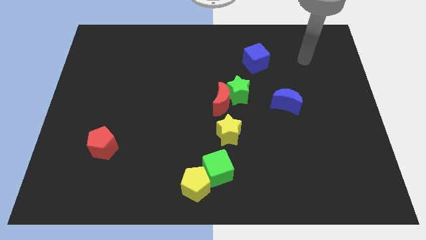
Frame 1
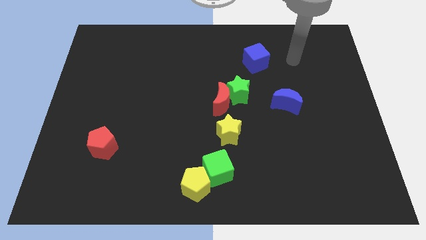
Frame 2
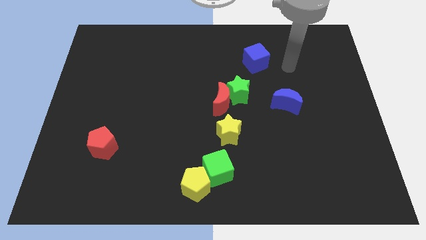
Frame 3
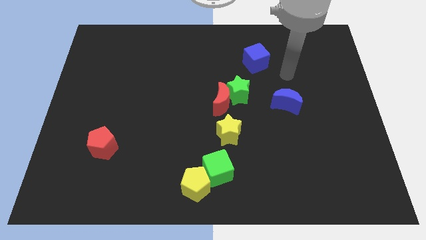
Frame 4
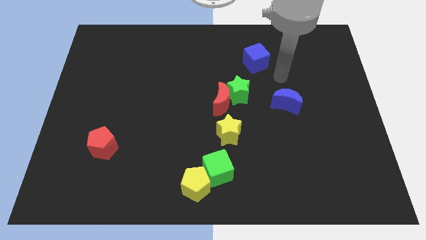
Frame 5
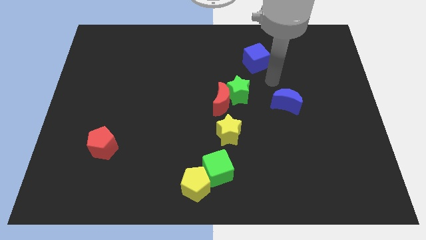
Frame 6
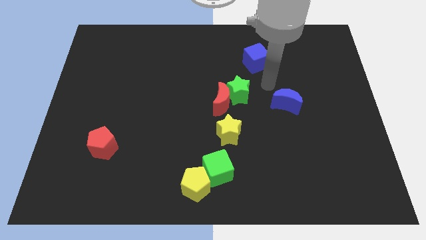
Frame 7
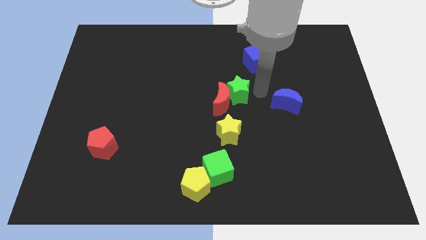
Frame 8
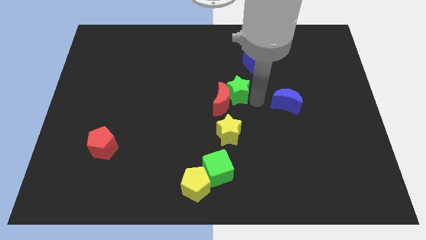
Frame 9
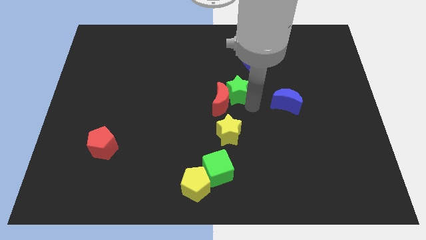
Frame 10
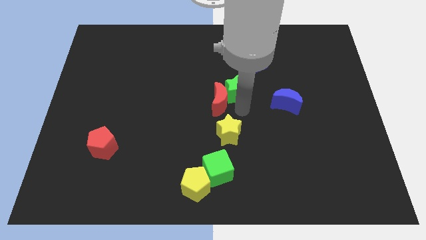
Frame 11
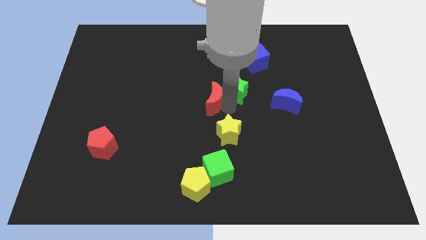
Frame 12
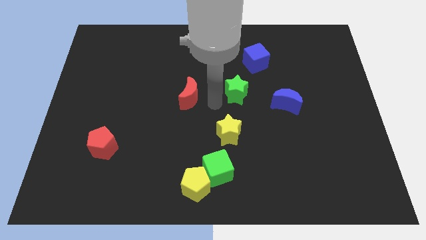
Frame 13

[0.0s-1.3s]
move the green star away from the red moon

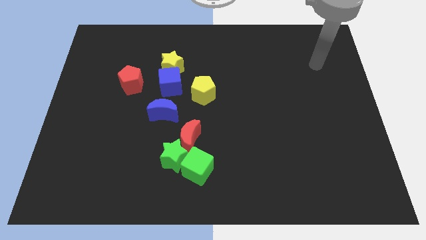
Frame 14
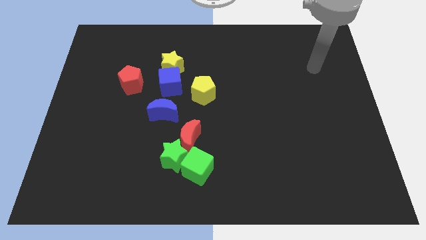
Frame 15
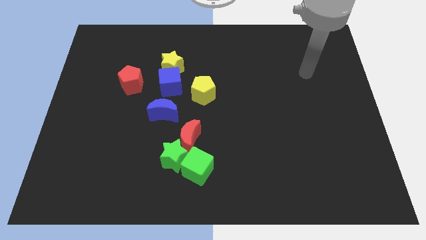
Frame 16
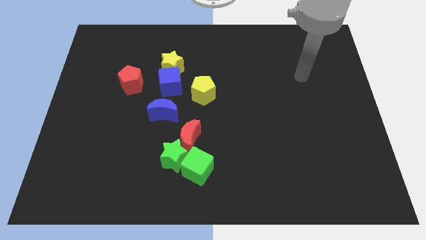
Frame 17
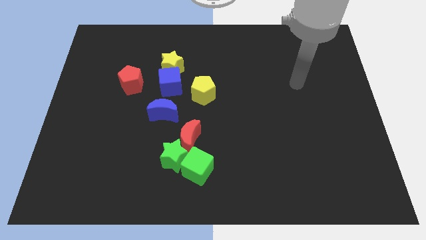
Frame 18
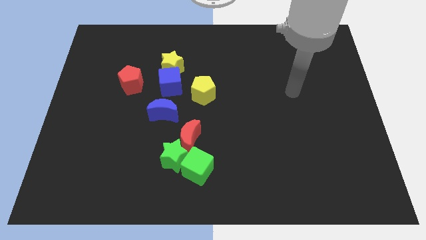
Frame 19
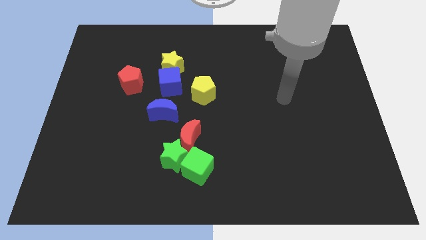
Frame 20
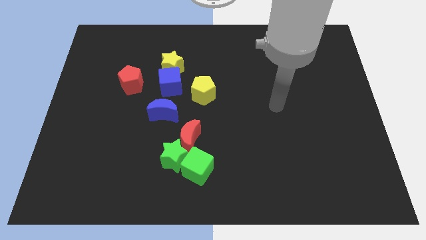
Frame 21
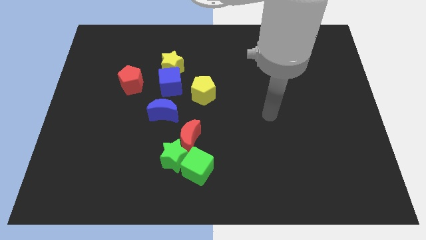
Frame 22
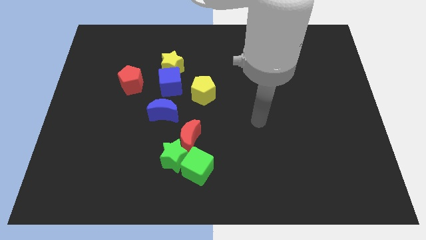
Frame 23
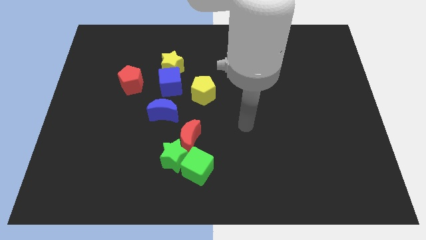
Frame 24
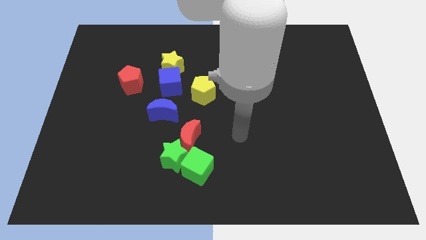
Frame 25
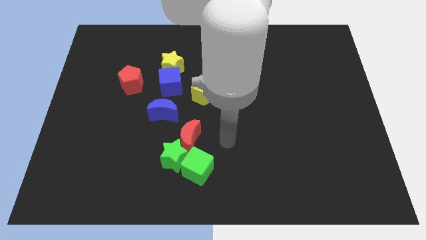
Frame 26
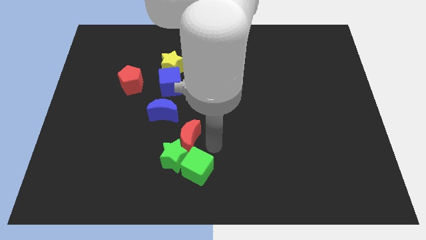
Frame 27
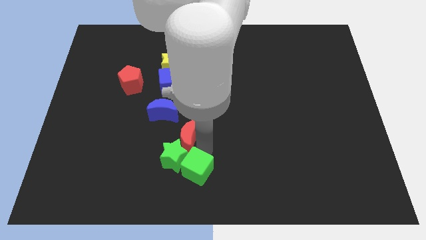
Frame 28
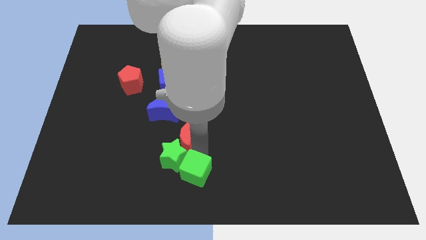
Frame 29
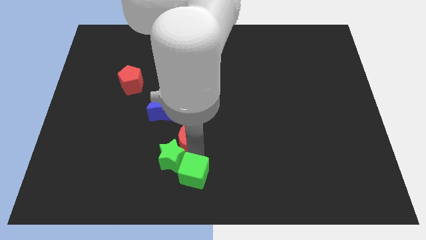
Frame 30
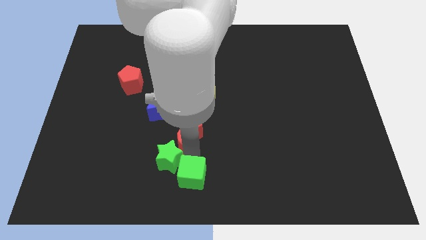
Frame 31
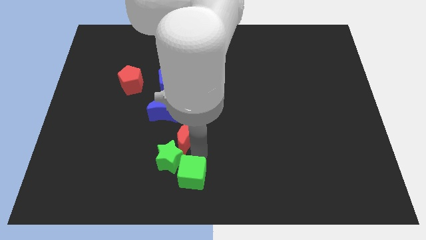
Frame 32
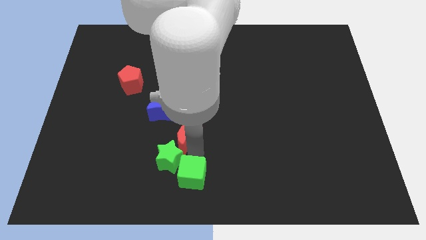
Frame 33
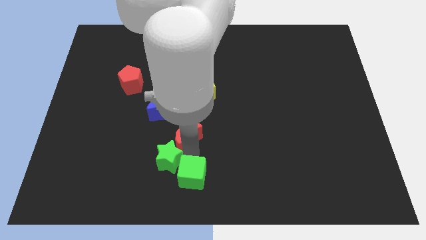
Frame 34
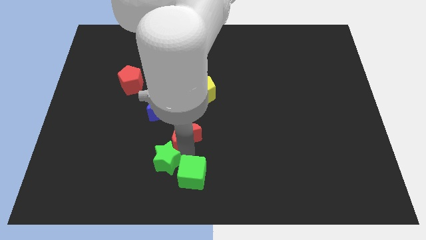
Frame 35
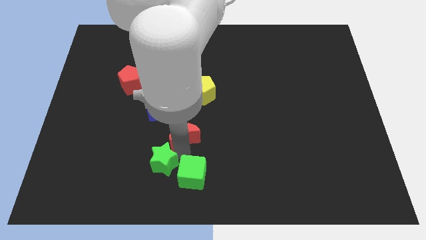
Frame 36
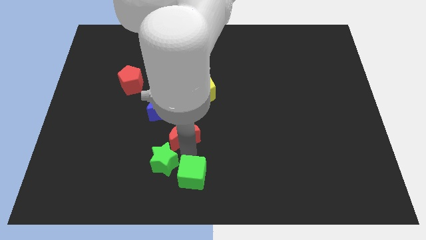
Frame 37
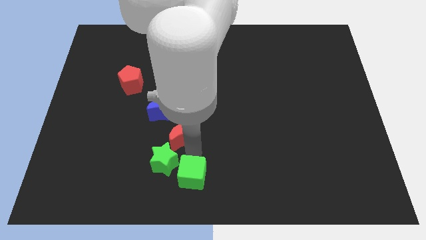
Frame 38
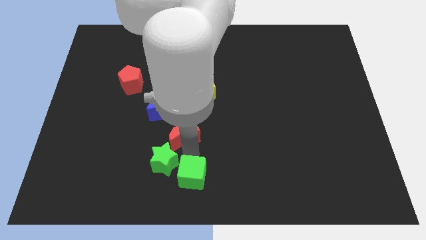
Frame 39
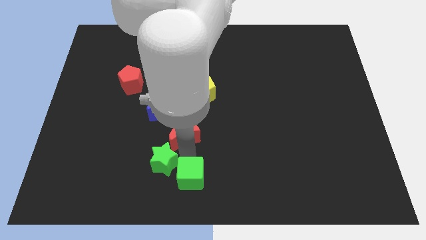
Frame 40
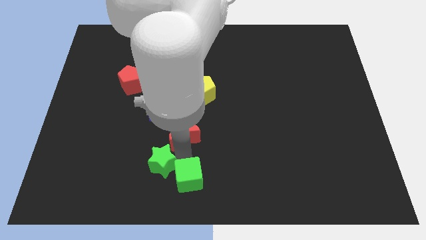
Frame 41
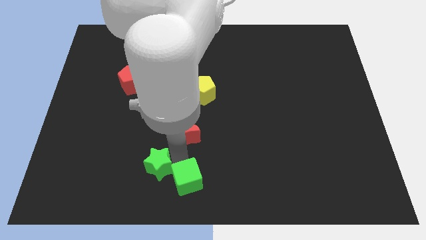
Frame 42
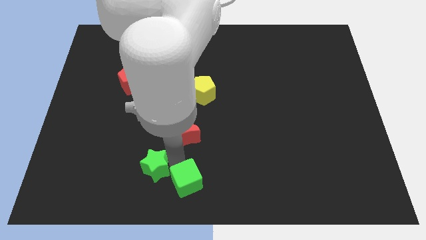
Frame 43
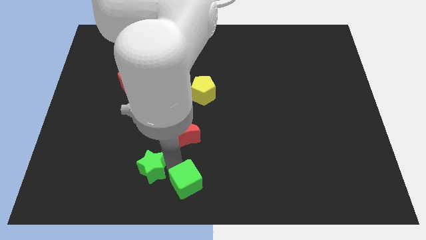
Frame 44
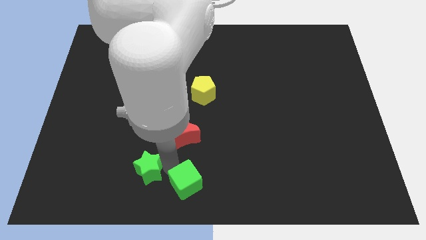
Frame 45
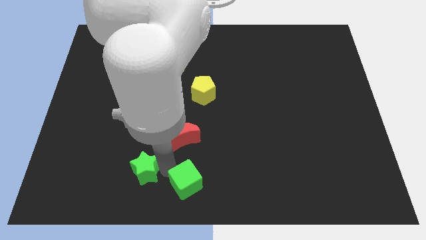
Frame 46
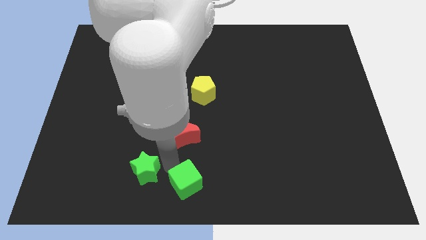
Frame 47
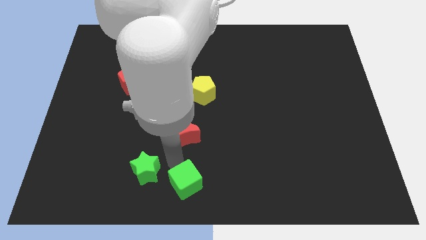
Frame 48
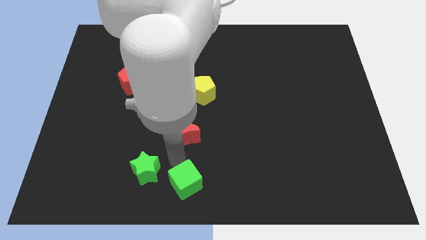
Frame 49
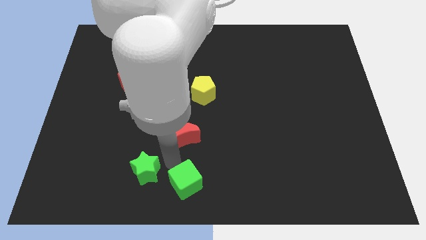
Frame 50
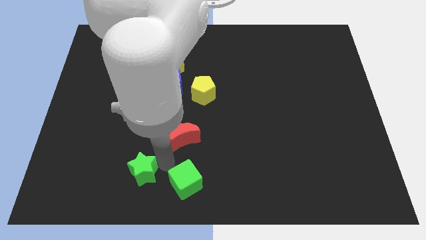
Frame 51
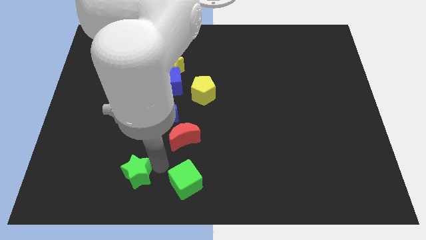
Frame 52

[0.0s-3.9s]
separate the green star from the red moon and green cube

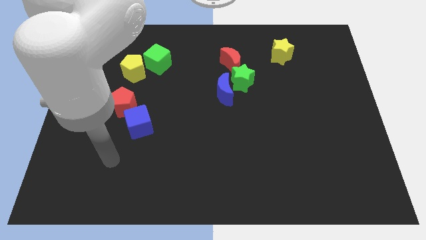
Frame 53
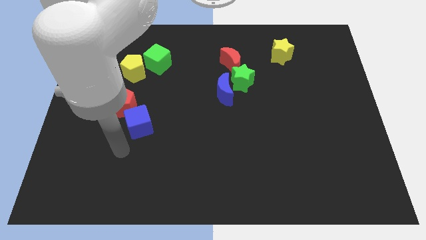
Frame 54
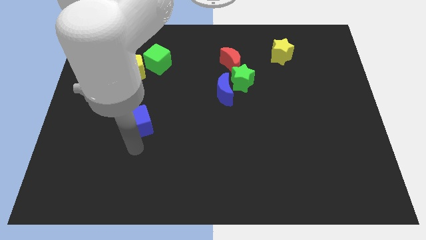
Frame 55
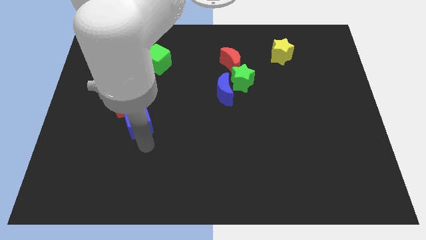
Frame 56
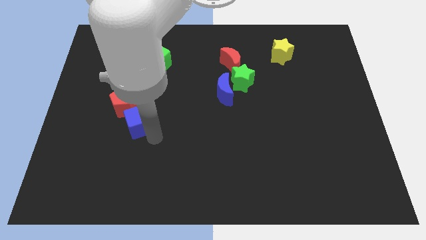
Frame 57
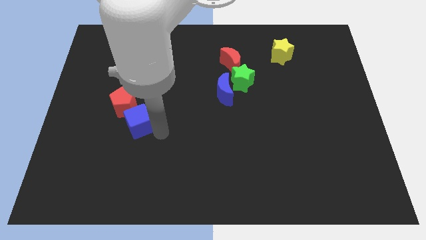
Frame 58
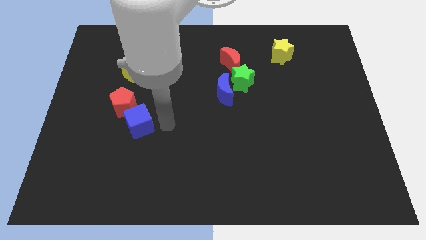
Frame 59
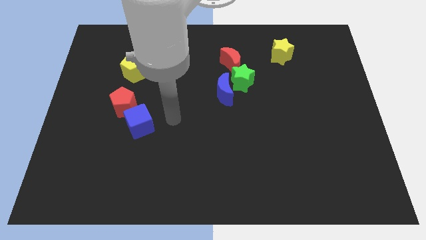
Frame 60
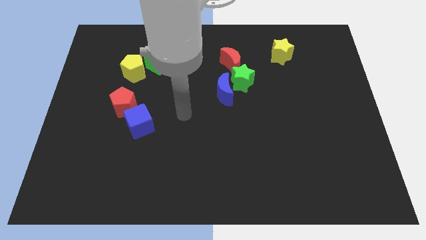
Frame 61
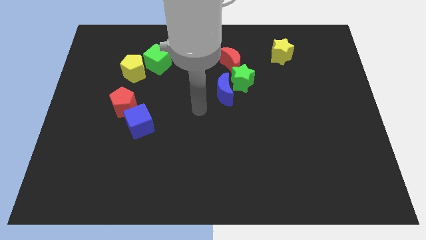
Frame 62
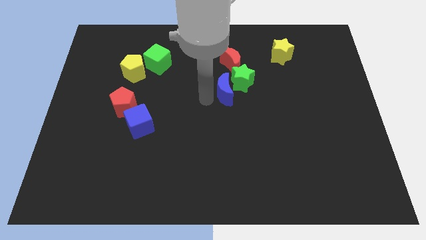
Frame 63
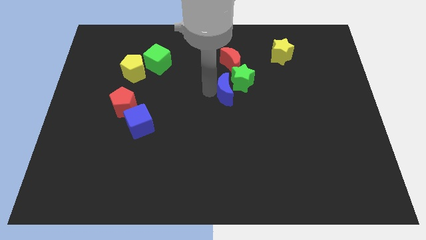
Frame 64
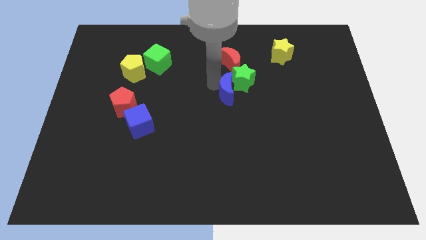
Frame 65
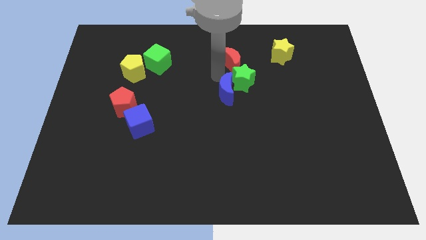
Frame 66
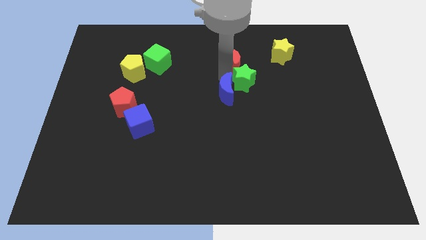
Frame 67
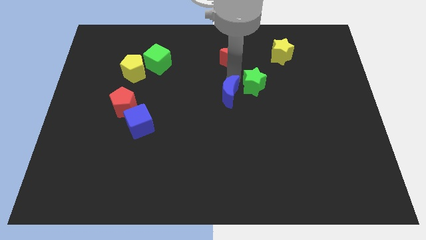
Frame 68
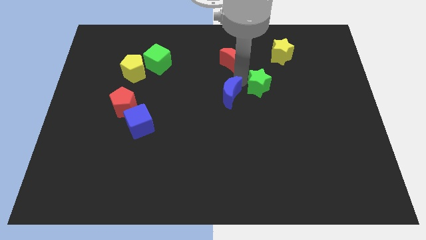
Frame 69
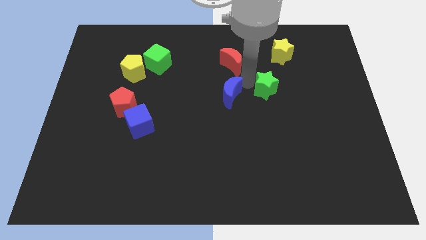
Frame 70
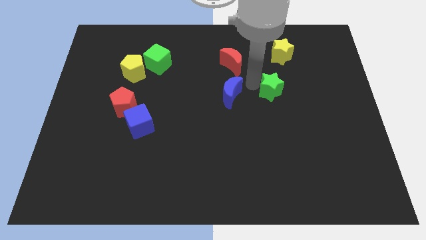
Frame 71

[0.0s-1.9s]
move the green star away from the blue moon and red moon

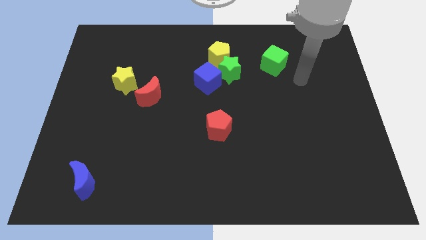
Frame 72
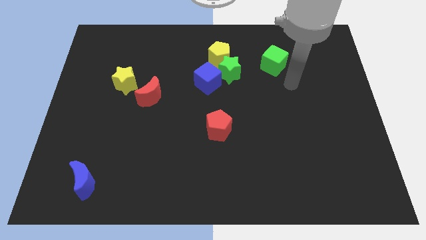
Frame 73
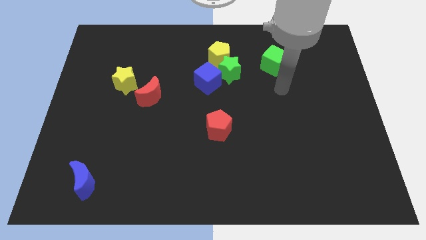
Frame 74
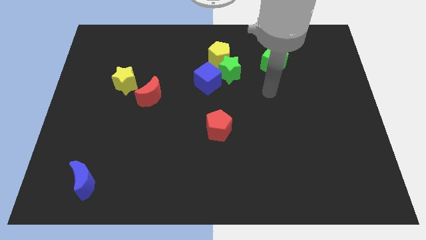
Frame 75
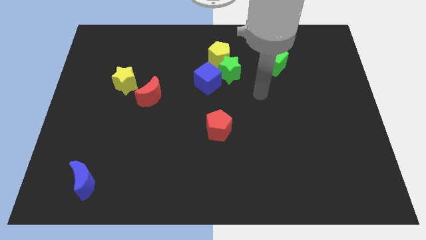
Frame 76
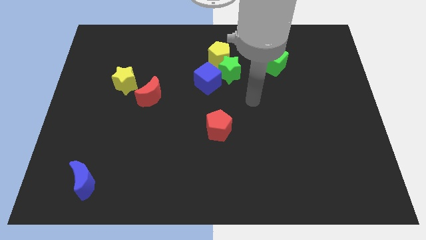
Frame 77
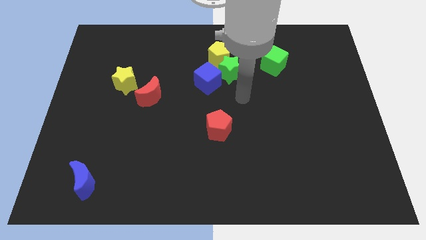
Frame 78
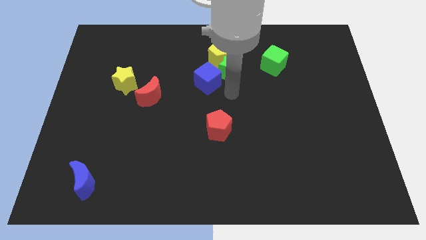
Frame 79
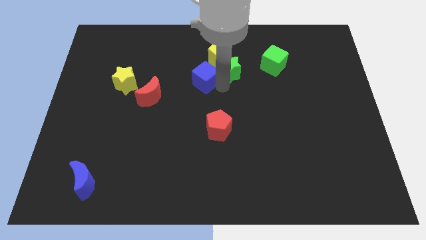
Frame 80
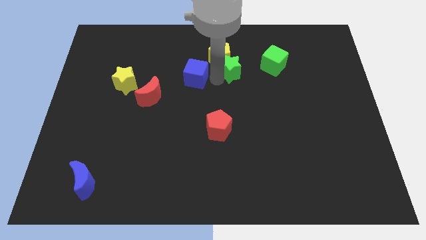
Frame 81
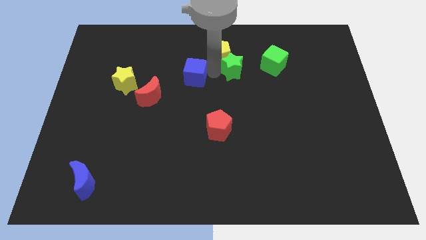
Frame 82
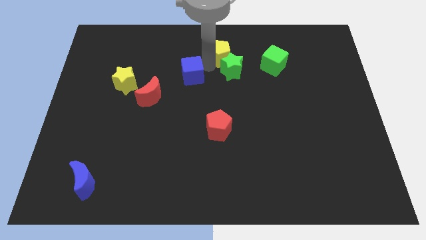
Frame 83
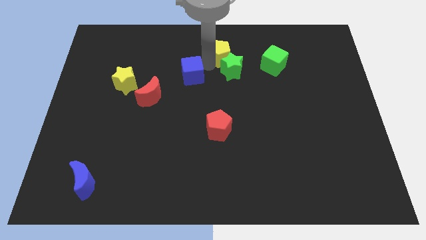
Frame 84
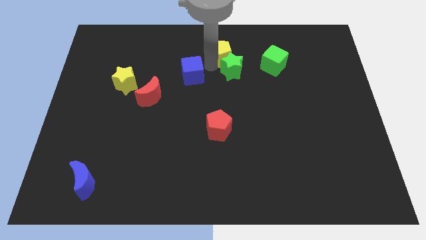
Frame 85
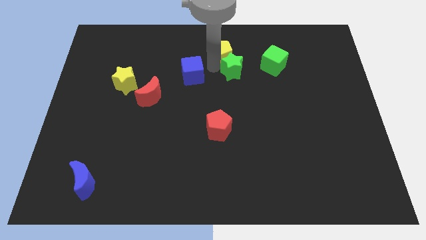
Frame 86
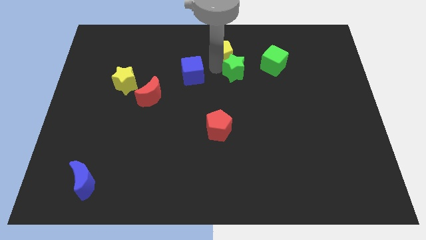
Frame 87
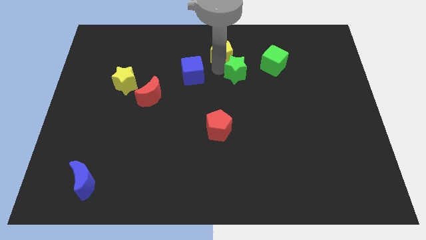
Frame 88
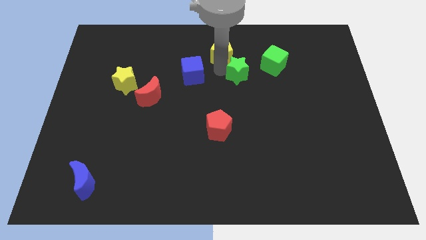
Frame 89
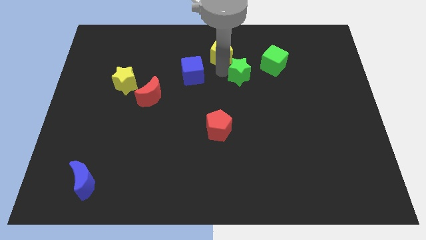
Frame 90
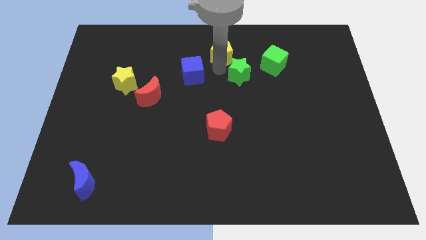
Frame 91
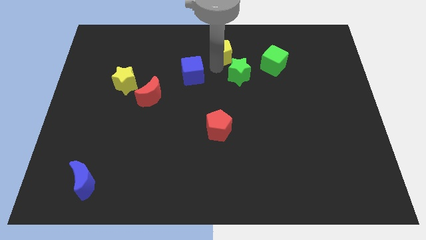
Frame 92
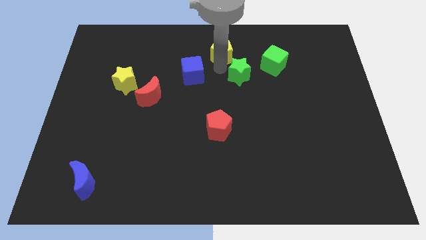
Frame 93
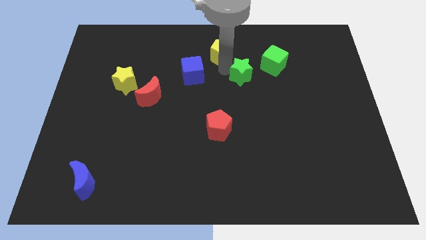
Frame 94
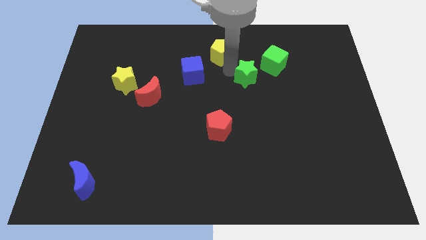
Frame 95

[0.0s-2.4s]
separate the green star from the yellow pentagon and blue cube
